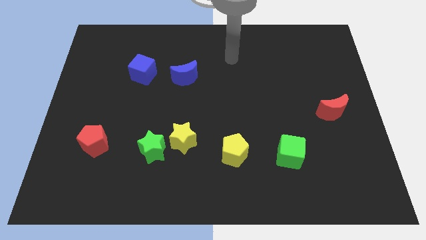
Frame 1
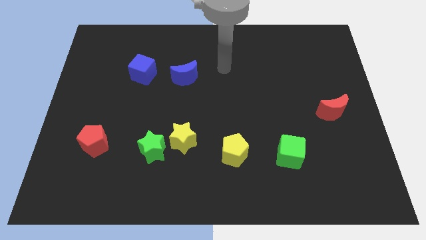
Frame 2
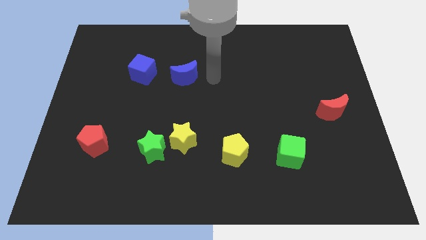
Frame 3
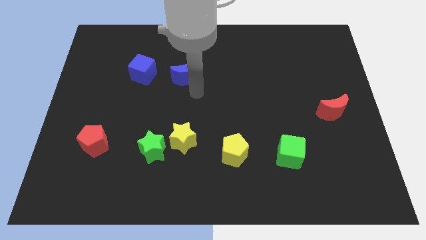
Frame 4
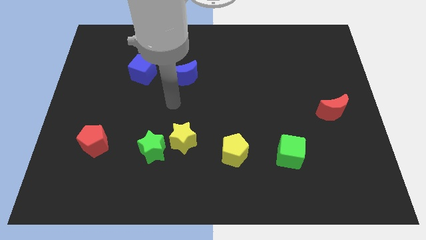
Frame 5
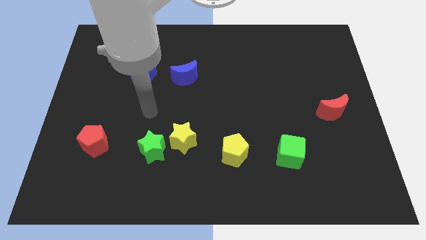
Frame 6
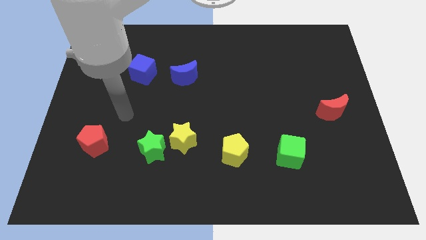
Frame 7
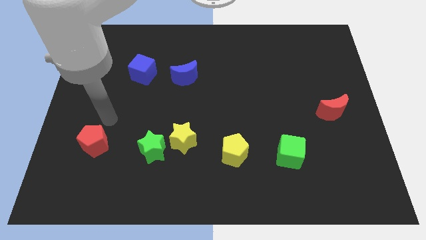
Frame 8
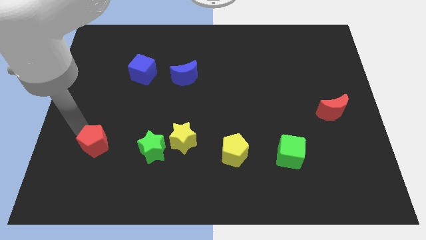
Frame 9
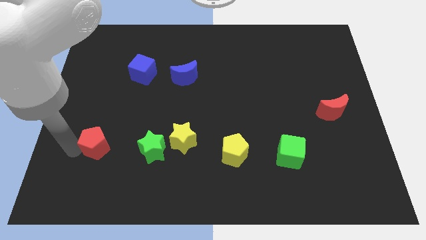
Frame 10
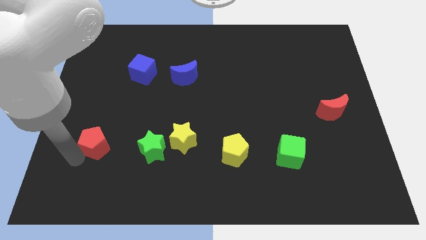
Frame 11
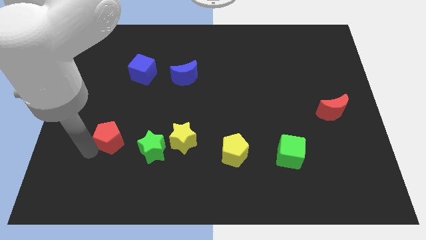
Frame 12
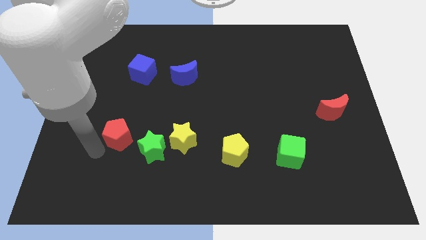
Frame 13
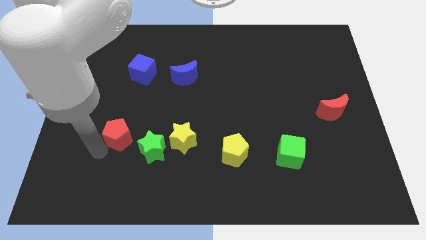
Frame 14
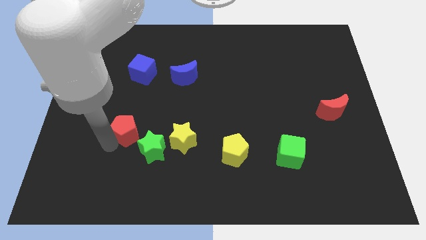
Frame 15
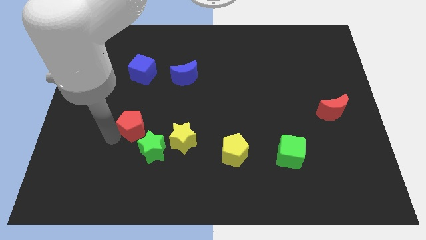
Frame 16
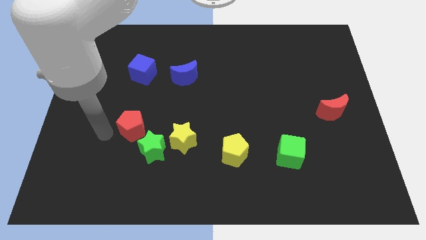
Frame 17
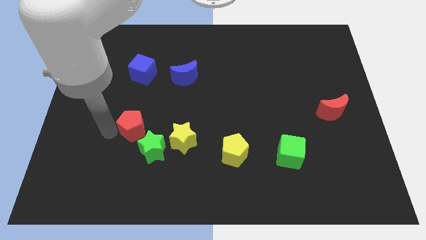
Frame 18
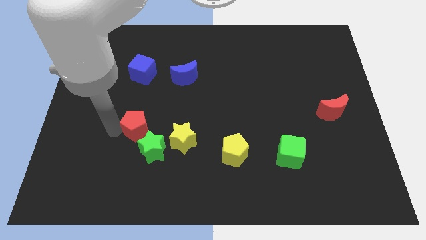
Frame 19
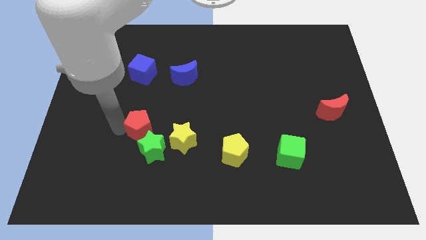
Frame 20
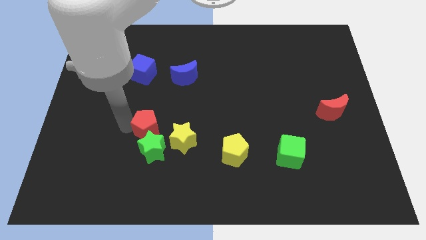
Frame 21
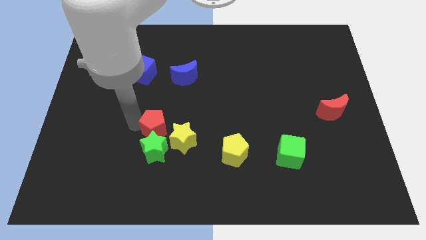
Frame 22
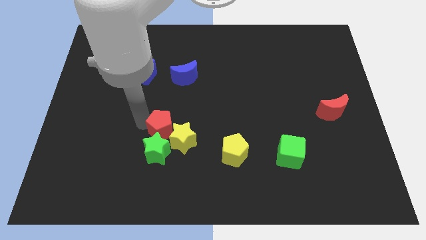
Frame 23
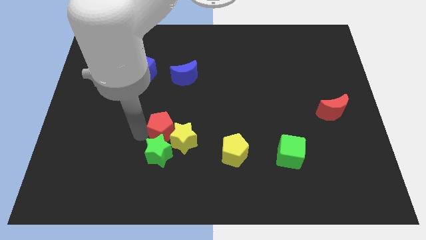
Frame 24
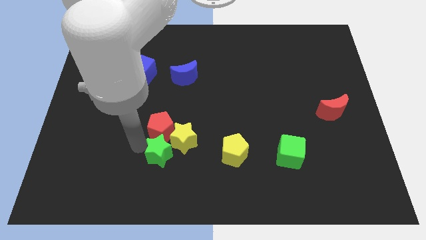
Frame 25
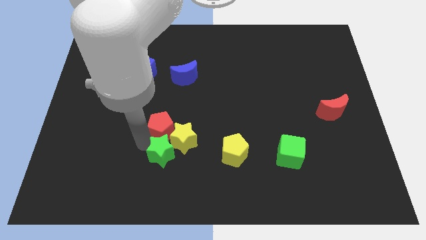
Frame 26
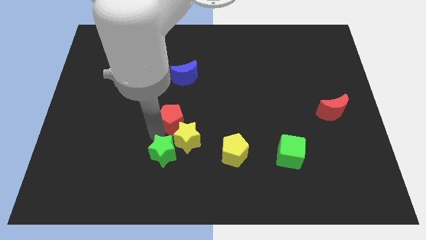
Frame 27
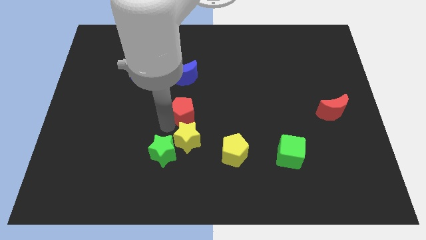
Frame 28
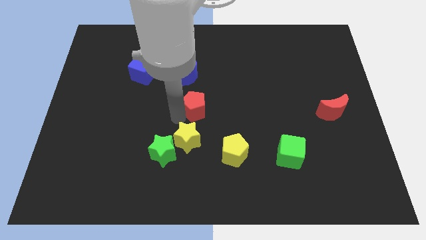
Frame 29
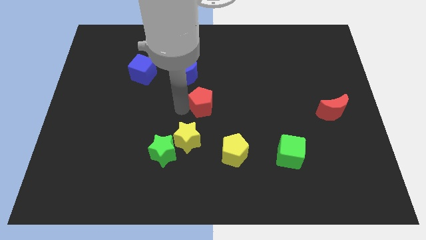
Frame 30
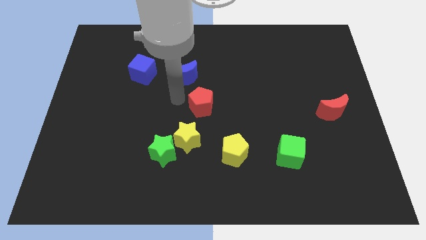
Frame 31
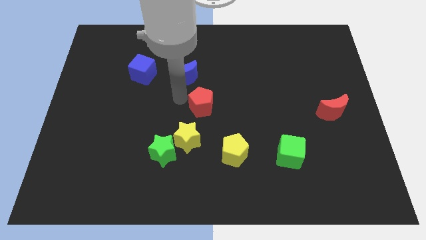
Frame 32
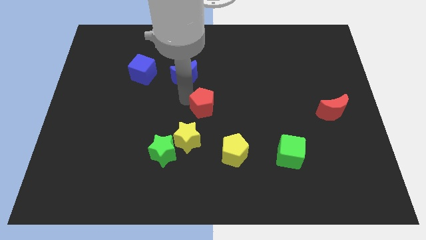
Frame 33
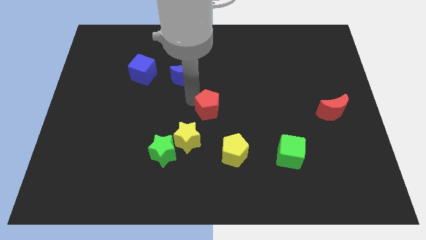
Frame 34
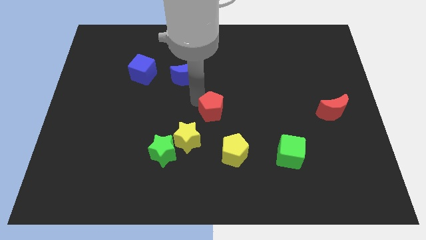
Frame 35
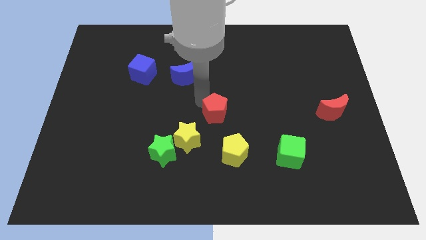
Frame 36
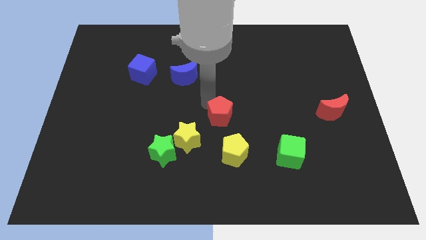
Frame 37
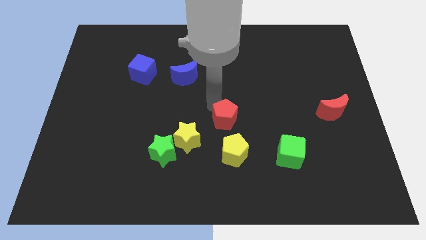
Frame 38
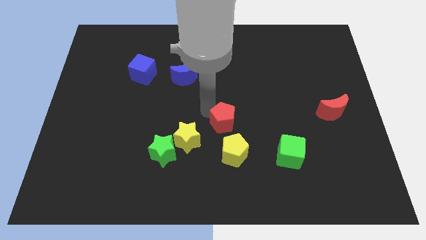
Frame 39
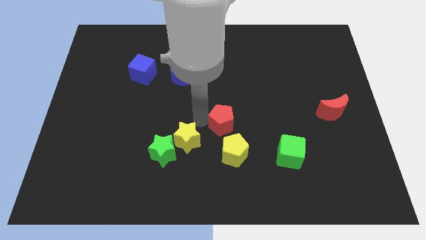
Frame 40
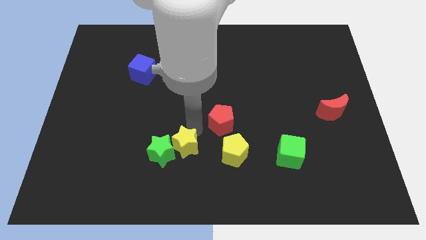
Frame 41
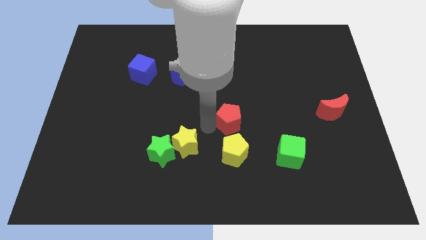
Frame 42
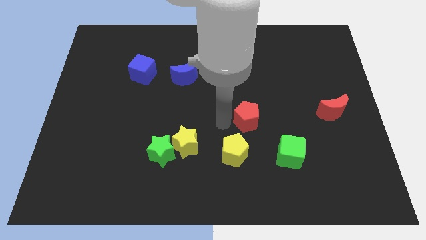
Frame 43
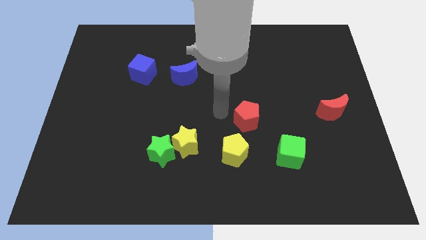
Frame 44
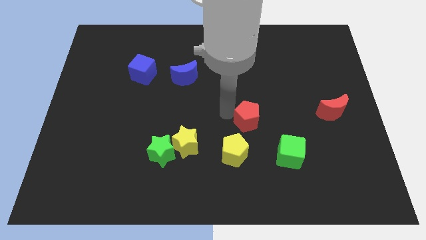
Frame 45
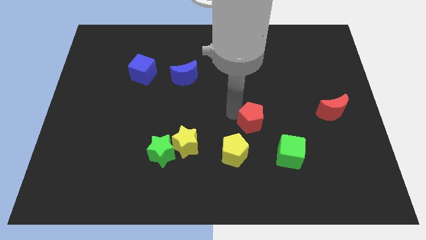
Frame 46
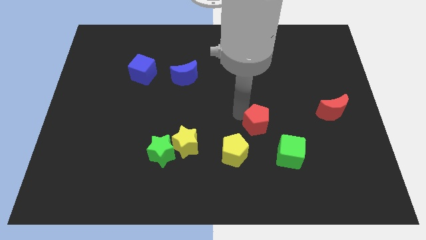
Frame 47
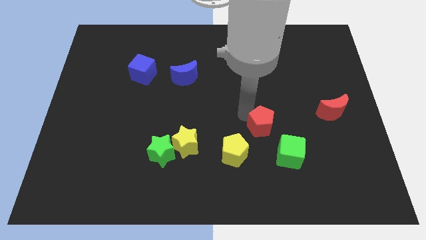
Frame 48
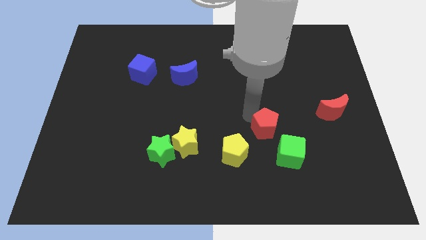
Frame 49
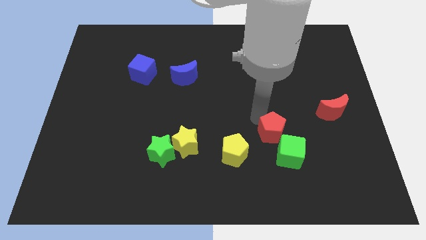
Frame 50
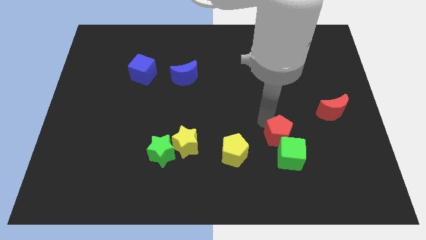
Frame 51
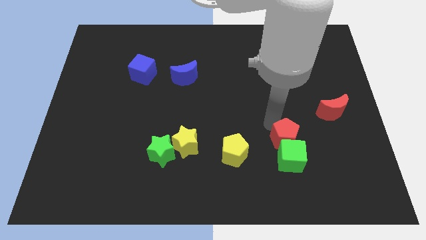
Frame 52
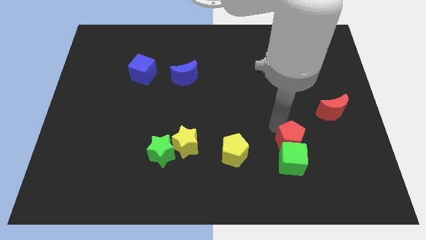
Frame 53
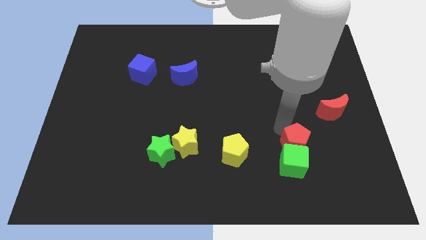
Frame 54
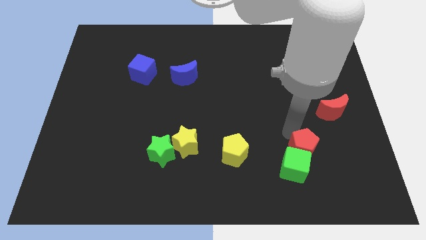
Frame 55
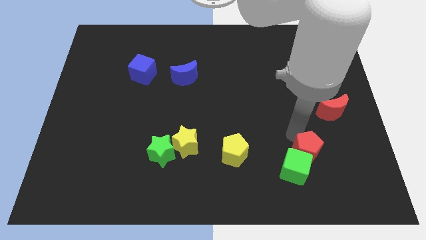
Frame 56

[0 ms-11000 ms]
slide the red pentagon right of the green cube

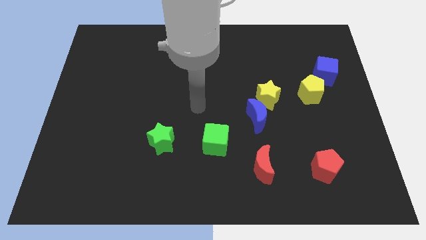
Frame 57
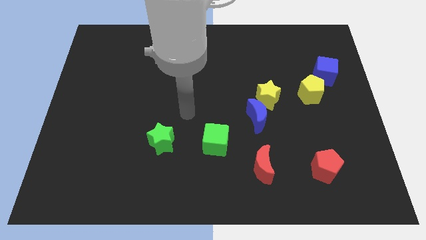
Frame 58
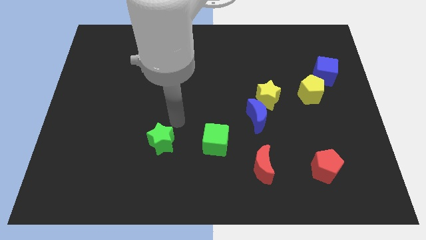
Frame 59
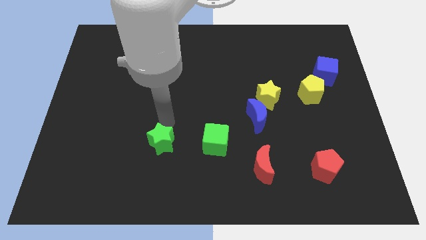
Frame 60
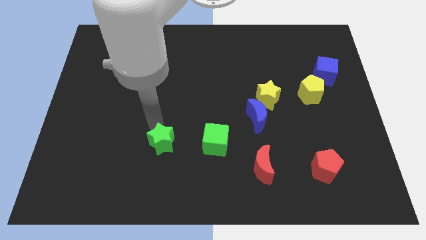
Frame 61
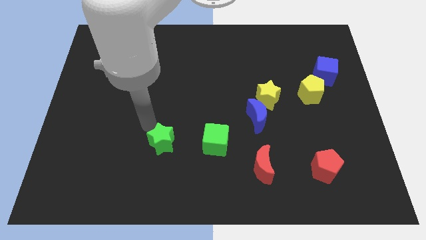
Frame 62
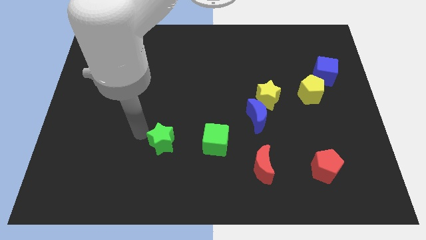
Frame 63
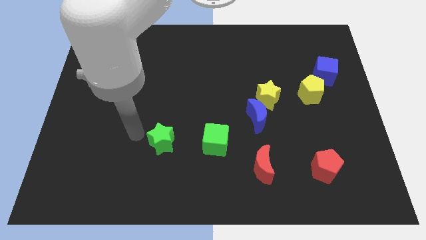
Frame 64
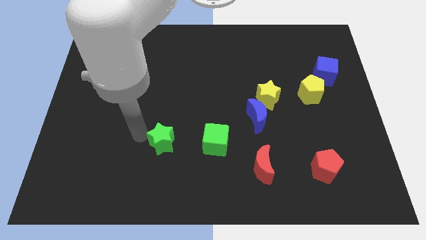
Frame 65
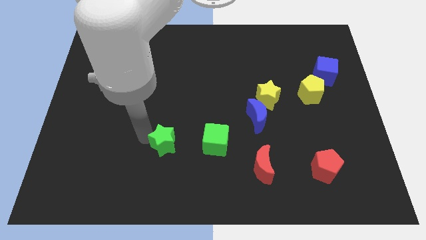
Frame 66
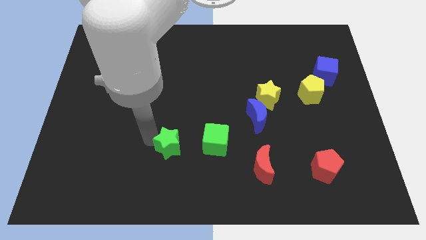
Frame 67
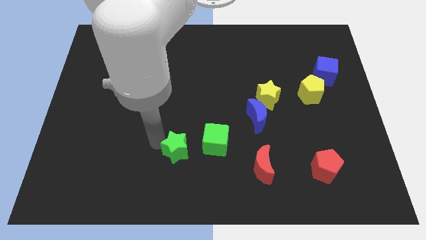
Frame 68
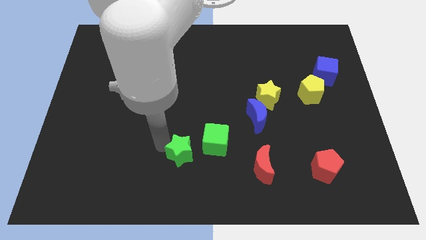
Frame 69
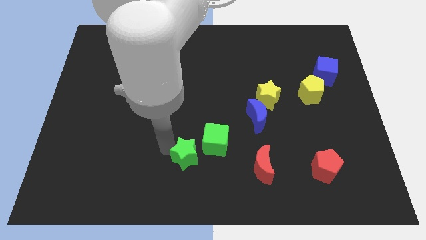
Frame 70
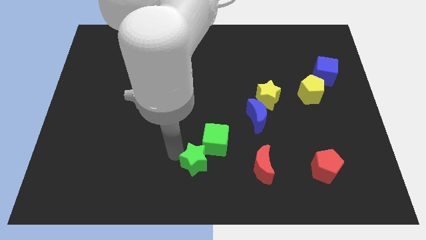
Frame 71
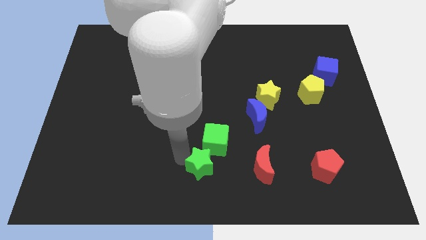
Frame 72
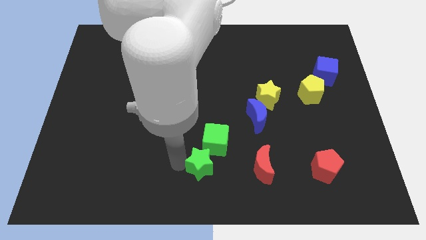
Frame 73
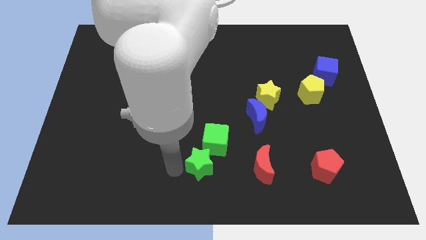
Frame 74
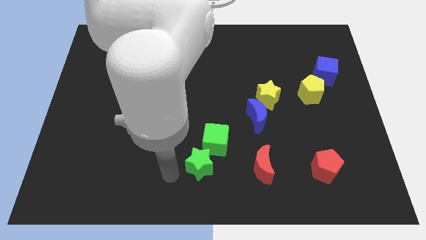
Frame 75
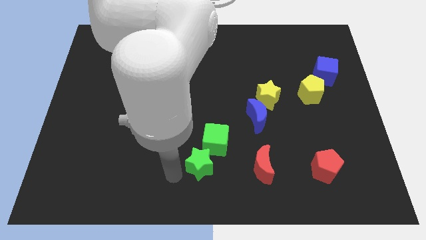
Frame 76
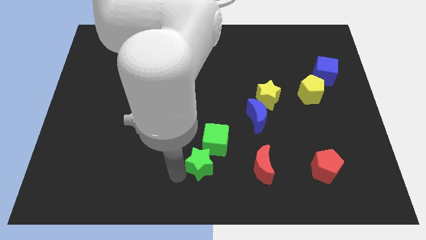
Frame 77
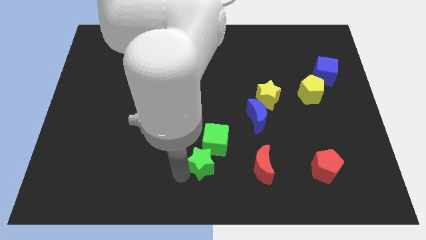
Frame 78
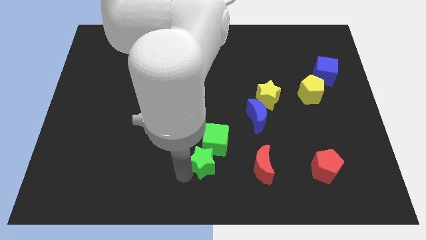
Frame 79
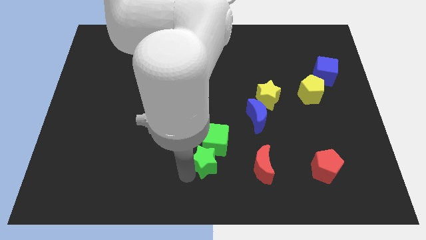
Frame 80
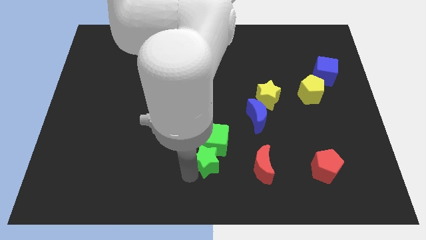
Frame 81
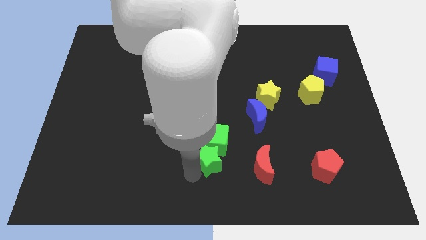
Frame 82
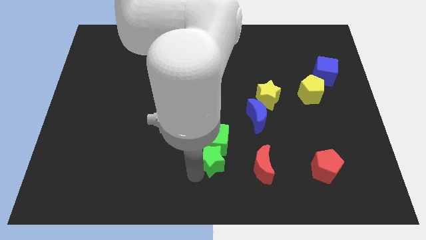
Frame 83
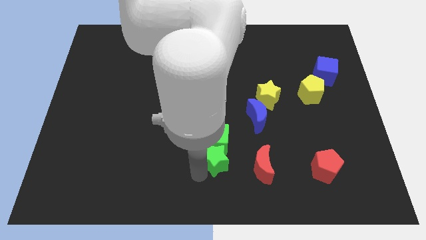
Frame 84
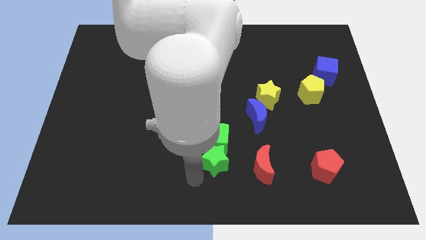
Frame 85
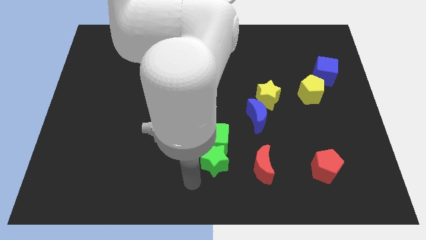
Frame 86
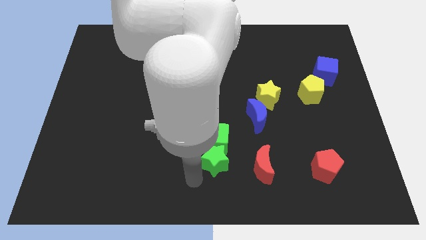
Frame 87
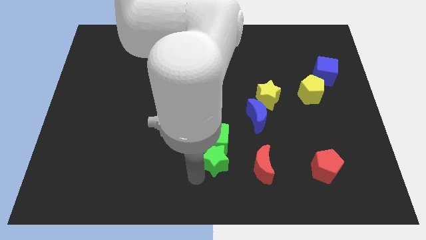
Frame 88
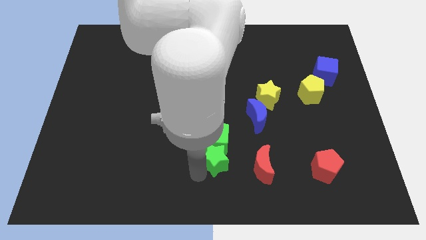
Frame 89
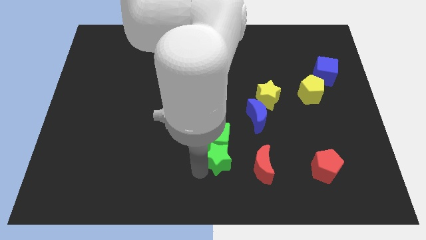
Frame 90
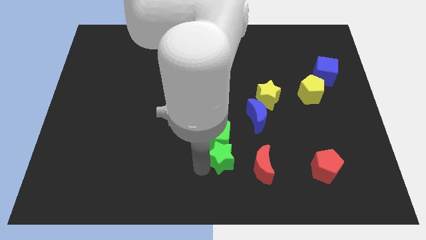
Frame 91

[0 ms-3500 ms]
push the green star diagonally up and to the left of the red moon
